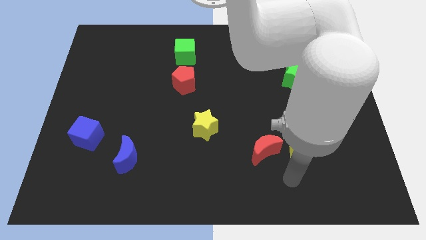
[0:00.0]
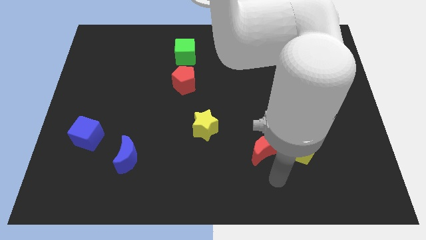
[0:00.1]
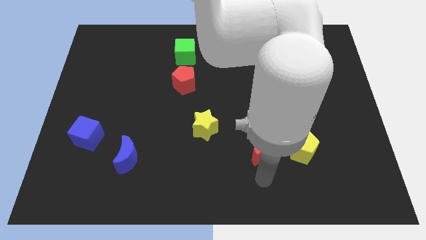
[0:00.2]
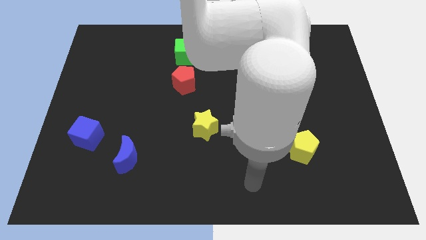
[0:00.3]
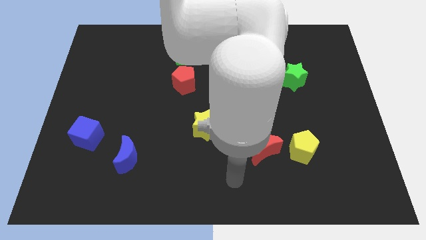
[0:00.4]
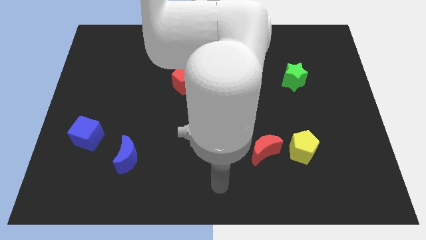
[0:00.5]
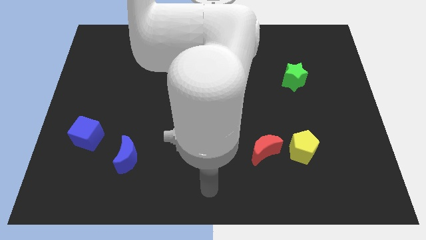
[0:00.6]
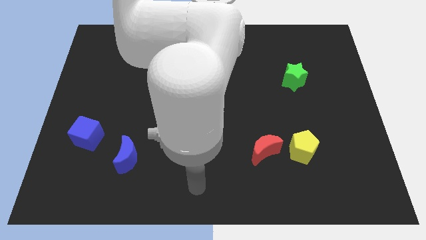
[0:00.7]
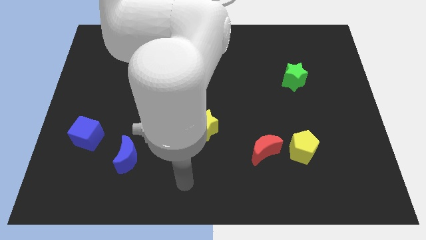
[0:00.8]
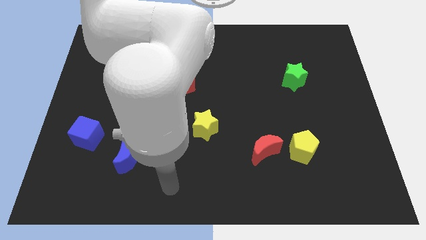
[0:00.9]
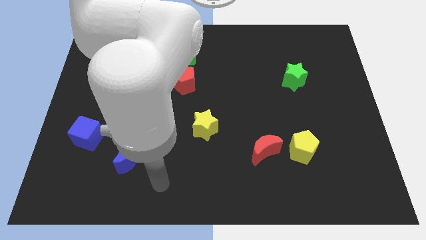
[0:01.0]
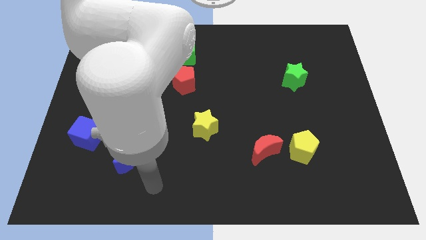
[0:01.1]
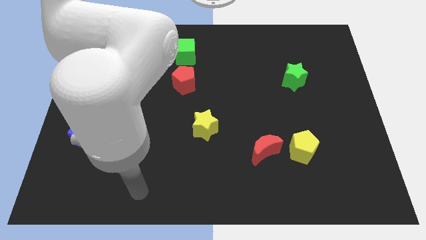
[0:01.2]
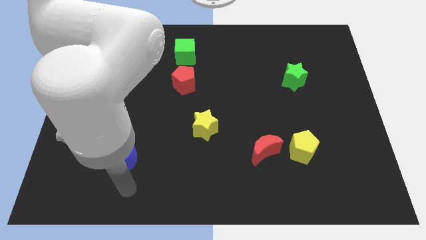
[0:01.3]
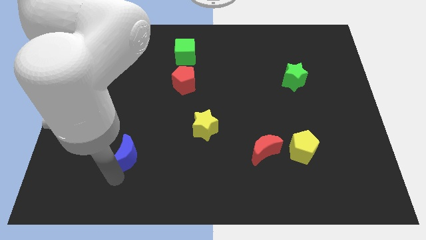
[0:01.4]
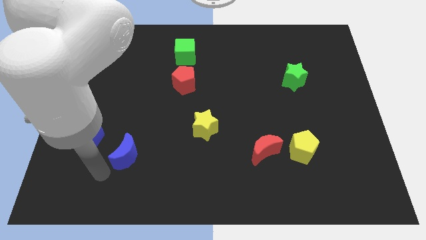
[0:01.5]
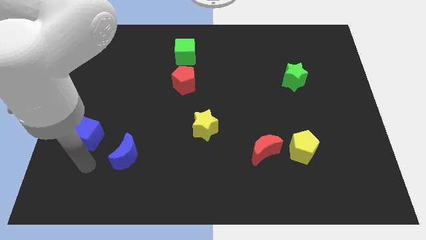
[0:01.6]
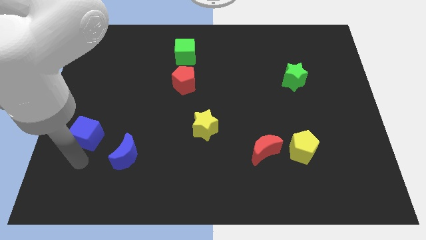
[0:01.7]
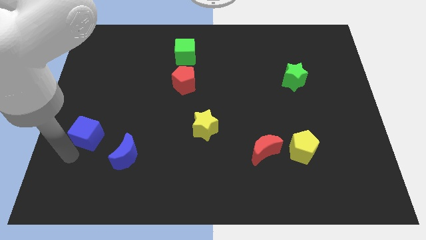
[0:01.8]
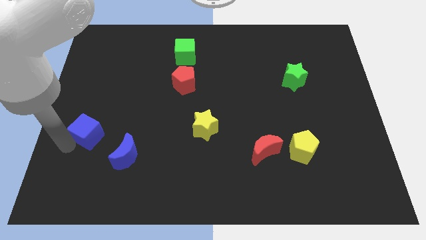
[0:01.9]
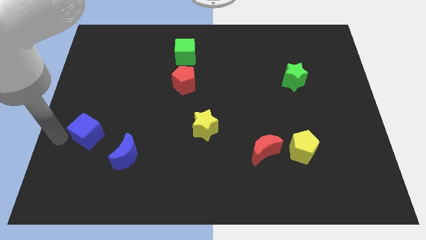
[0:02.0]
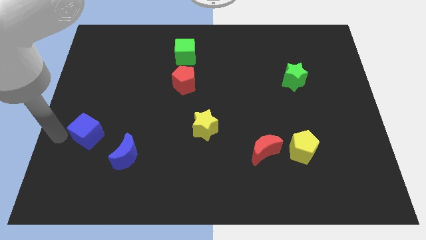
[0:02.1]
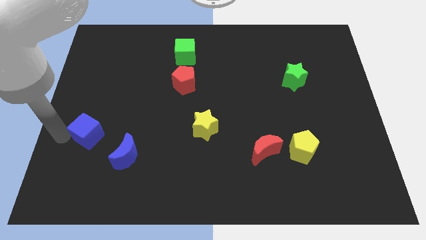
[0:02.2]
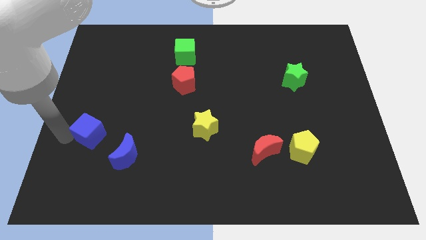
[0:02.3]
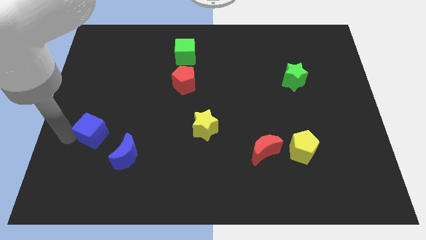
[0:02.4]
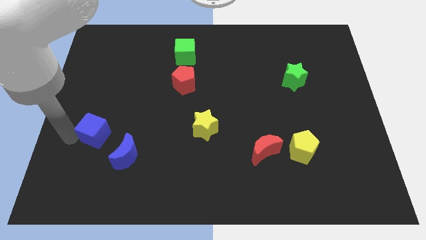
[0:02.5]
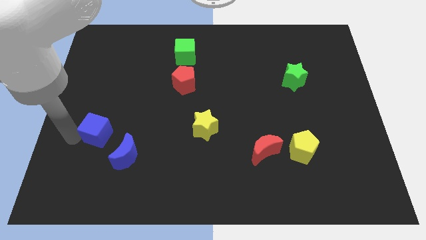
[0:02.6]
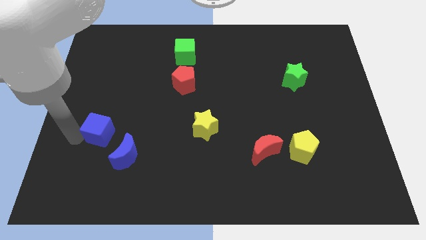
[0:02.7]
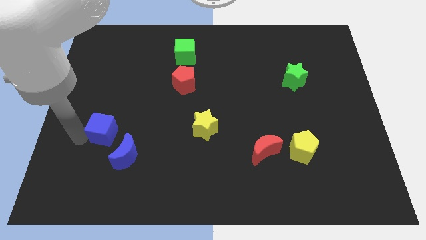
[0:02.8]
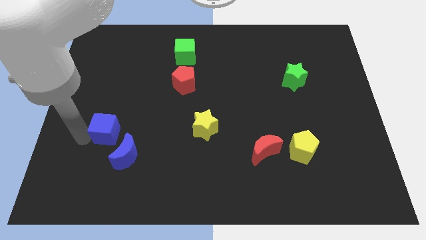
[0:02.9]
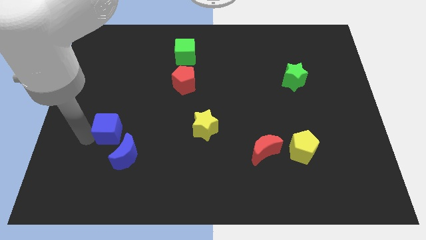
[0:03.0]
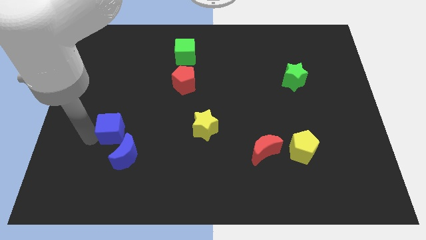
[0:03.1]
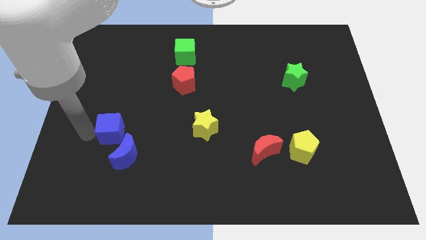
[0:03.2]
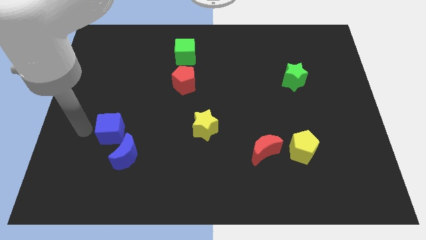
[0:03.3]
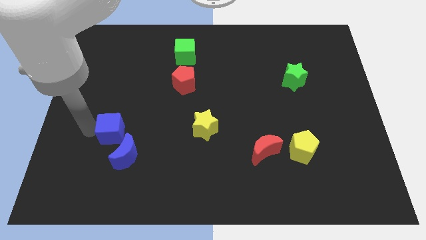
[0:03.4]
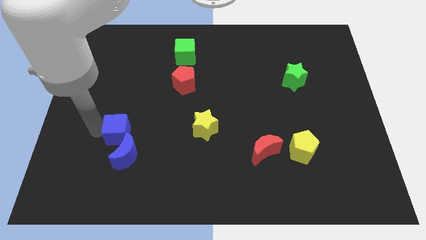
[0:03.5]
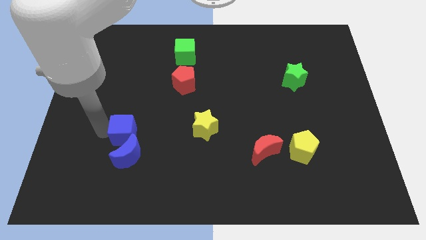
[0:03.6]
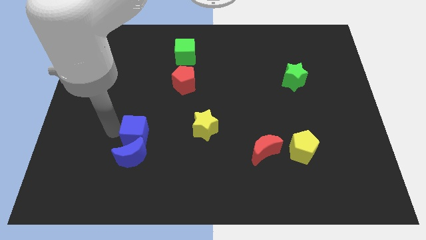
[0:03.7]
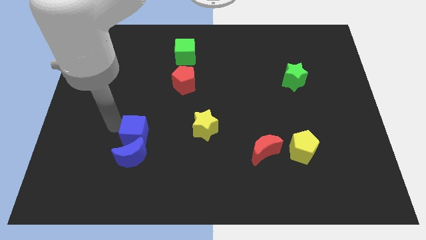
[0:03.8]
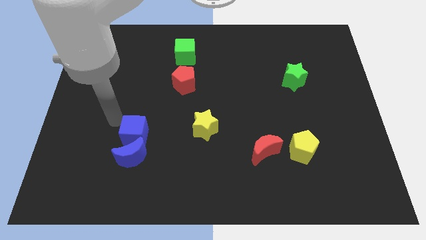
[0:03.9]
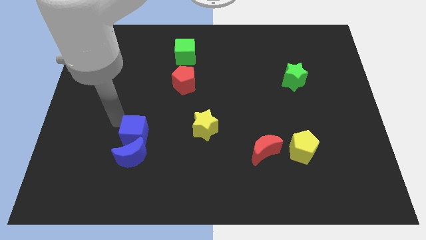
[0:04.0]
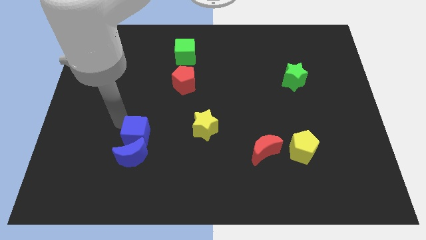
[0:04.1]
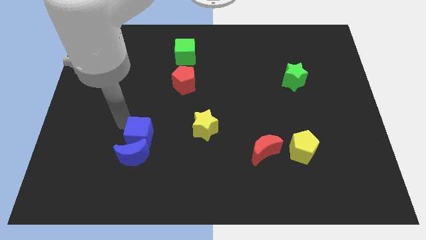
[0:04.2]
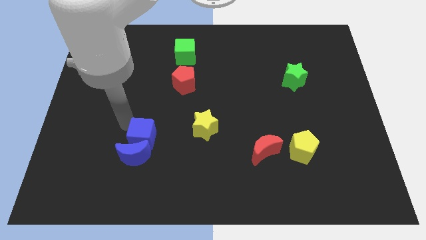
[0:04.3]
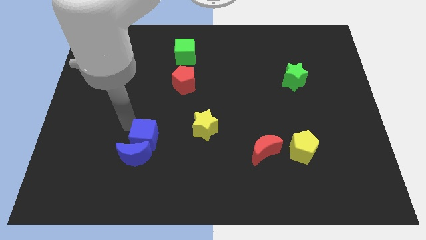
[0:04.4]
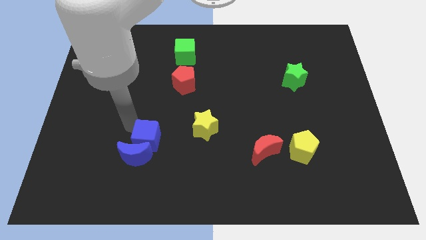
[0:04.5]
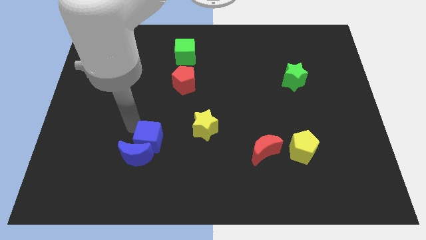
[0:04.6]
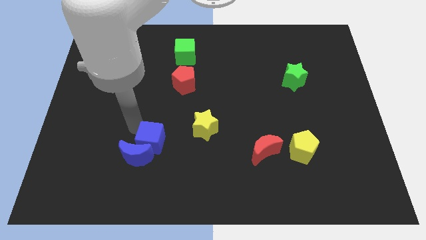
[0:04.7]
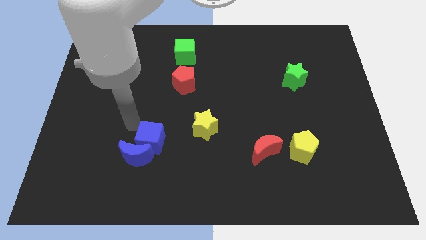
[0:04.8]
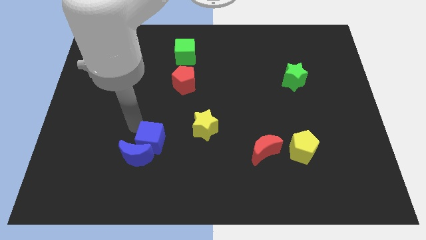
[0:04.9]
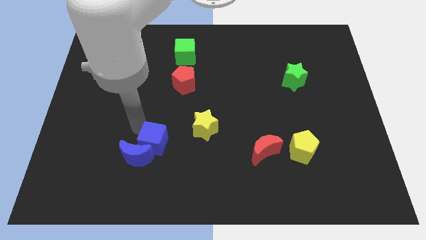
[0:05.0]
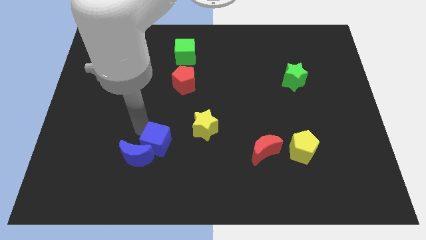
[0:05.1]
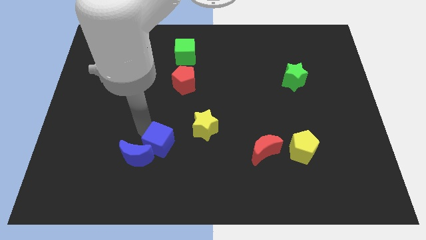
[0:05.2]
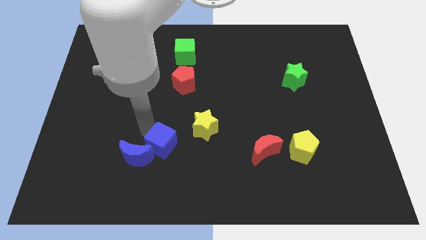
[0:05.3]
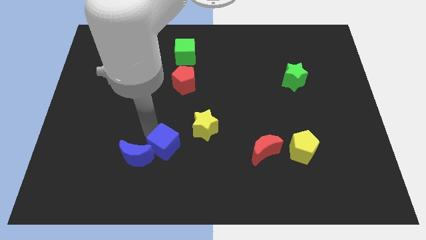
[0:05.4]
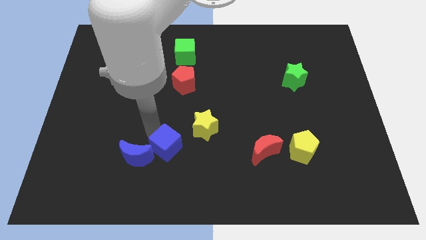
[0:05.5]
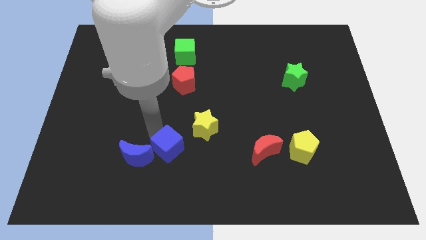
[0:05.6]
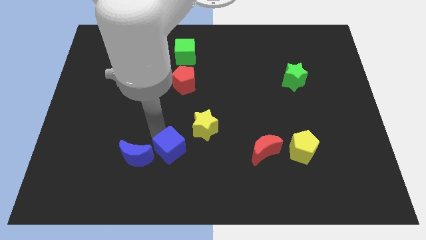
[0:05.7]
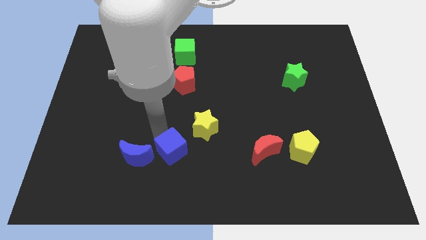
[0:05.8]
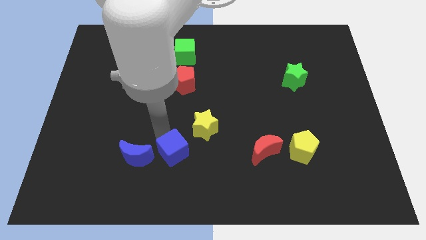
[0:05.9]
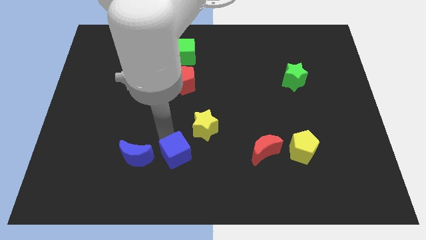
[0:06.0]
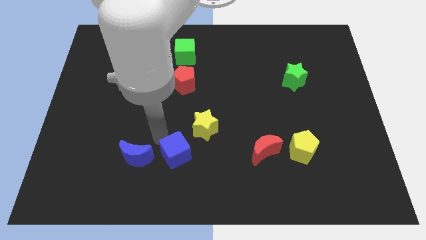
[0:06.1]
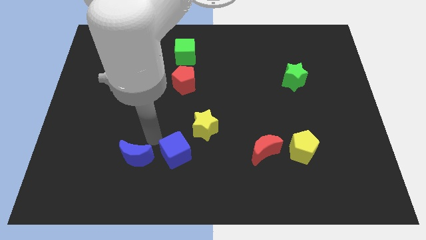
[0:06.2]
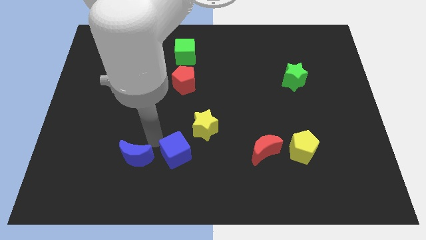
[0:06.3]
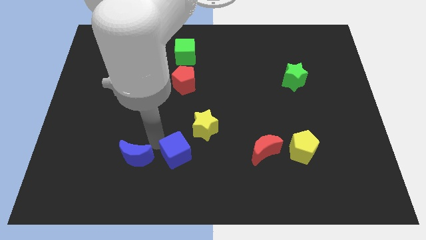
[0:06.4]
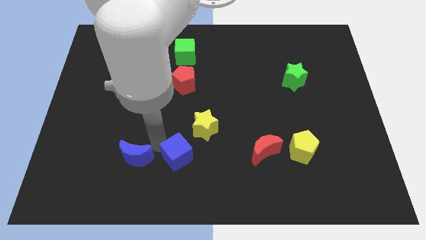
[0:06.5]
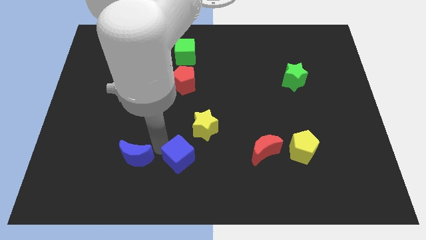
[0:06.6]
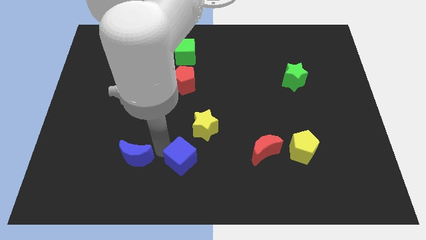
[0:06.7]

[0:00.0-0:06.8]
slide the blue cube to the bottom of the yellow star

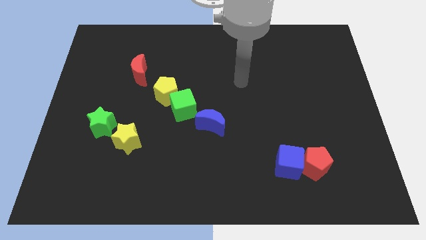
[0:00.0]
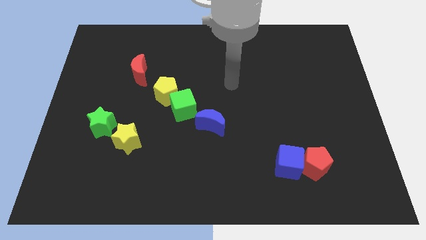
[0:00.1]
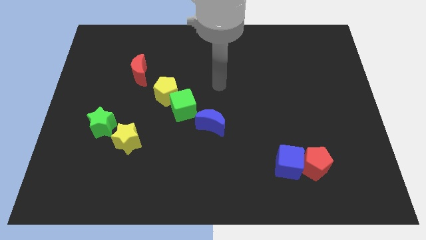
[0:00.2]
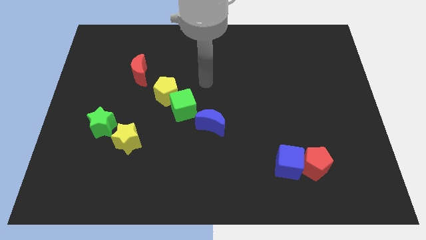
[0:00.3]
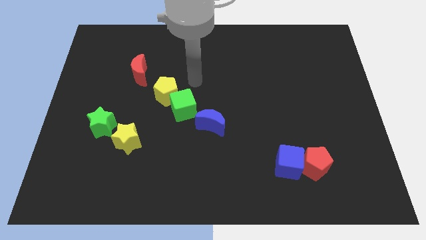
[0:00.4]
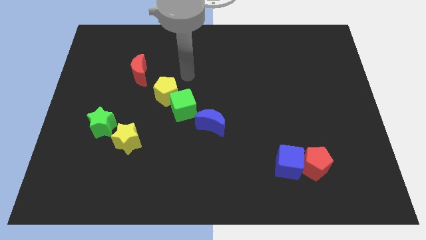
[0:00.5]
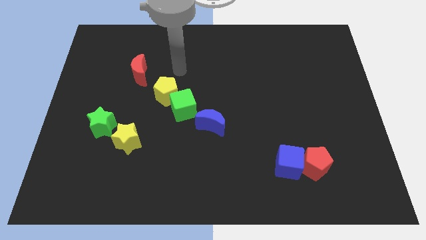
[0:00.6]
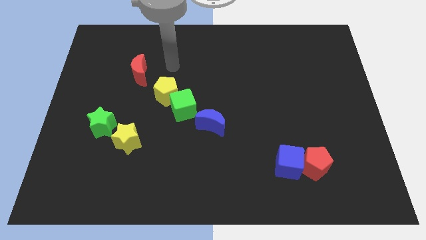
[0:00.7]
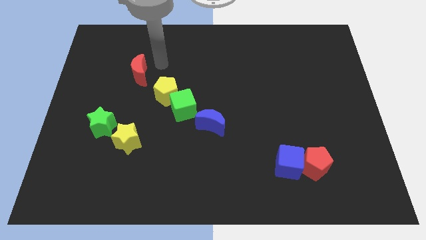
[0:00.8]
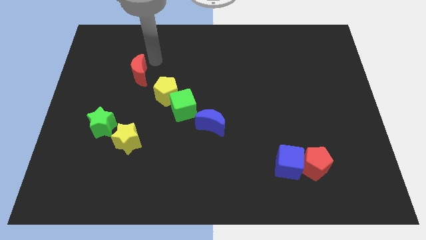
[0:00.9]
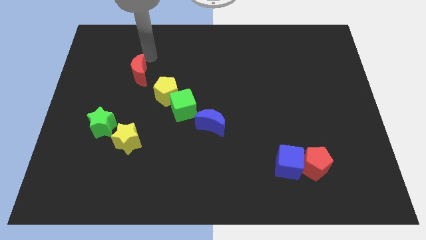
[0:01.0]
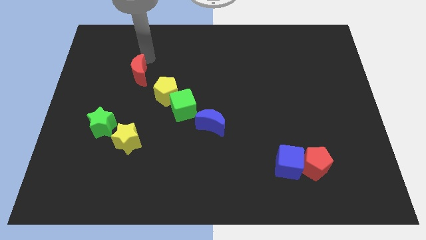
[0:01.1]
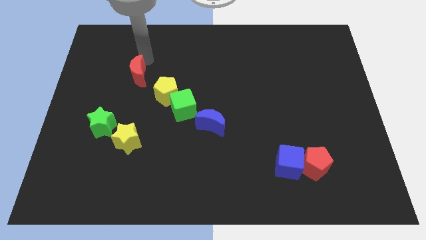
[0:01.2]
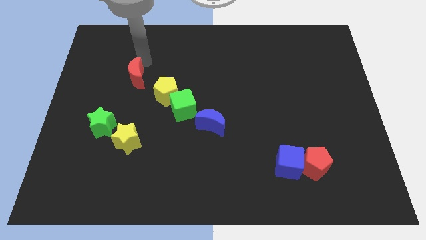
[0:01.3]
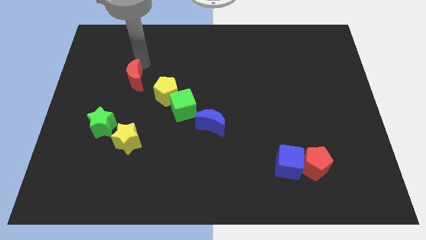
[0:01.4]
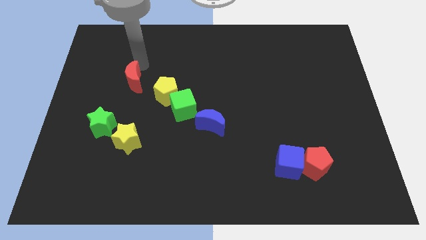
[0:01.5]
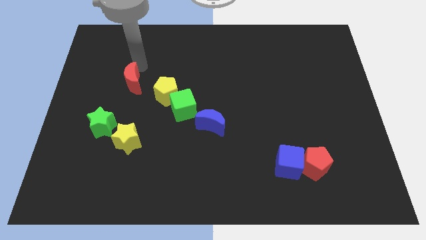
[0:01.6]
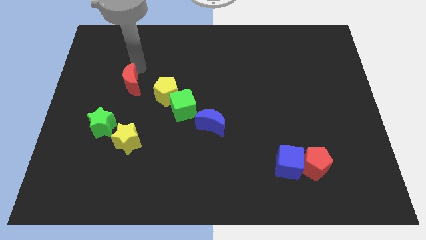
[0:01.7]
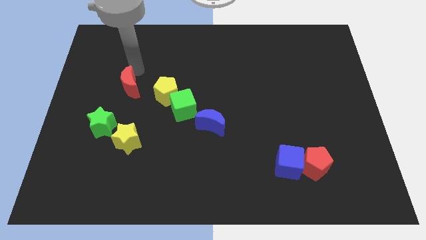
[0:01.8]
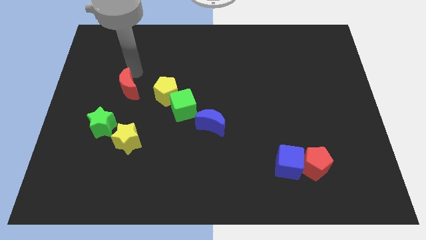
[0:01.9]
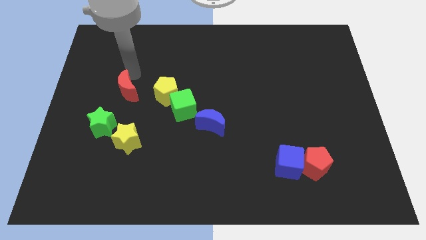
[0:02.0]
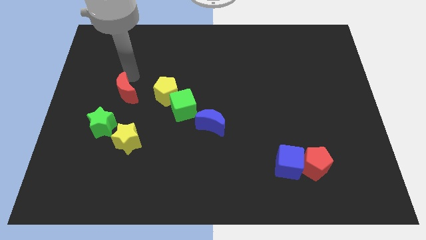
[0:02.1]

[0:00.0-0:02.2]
push the red moon to the top right of the green star
